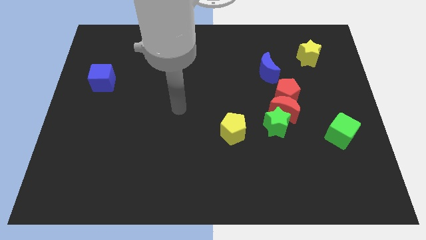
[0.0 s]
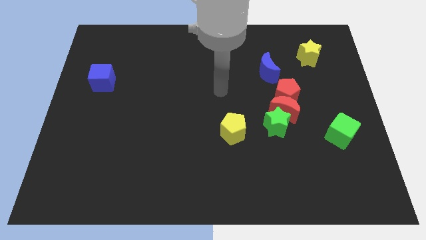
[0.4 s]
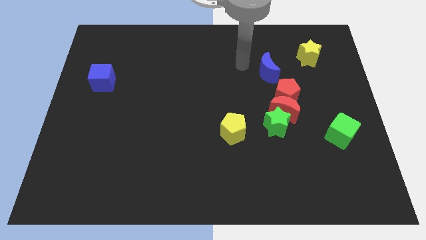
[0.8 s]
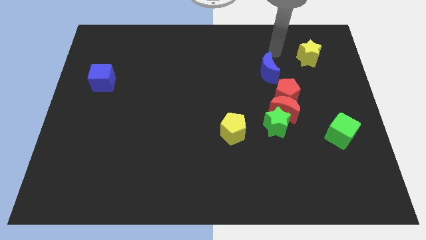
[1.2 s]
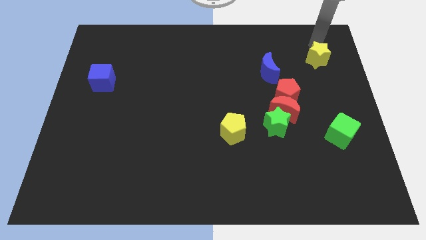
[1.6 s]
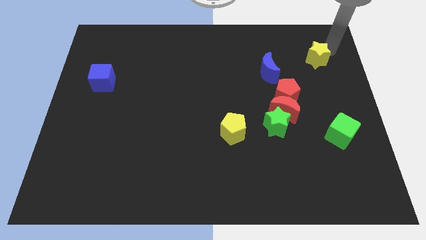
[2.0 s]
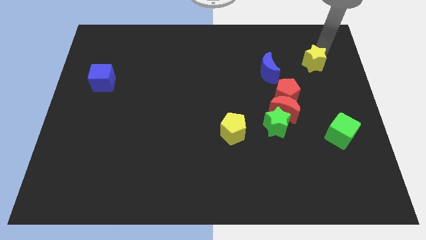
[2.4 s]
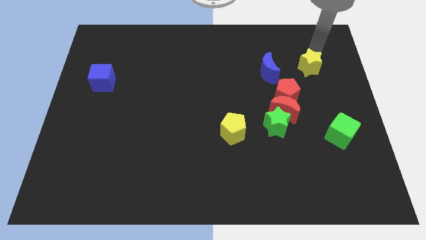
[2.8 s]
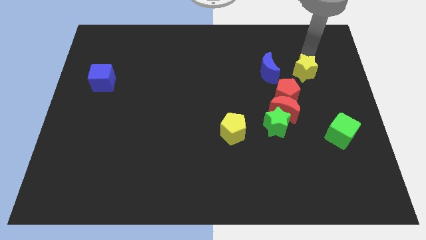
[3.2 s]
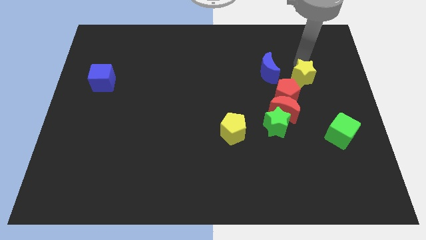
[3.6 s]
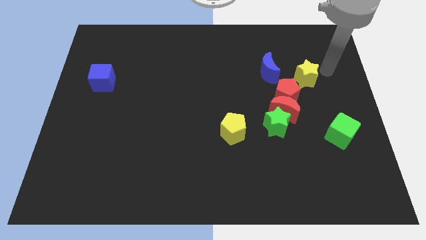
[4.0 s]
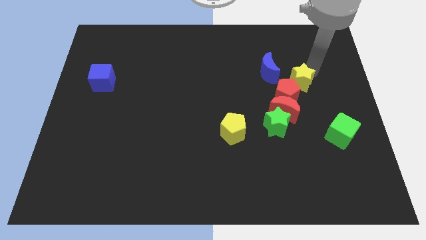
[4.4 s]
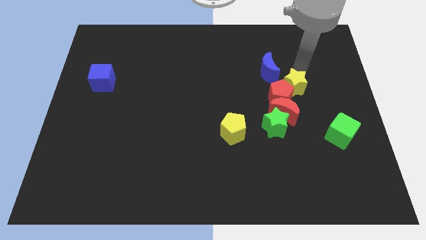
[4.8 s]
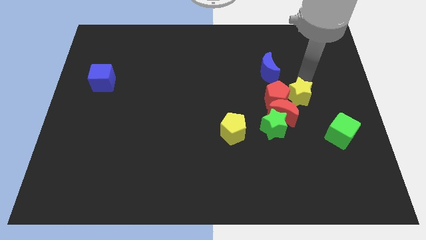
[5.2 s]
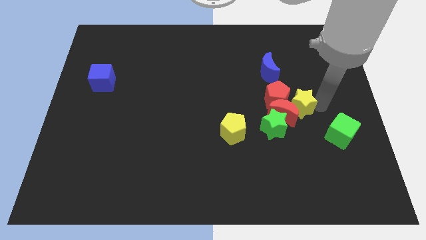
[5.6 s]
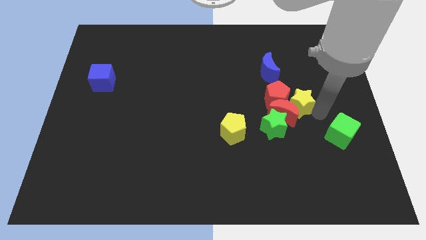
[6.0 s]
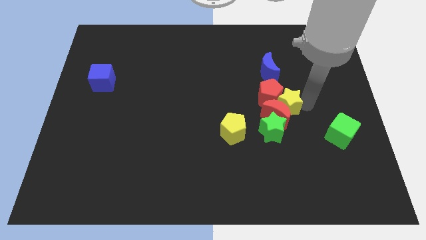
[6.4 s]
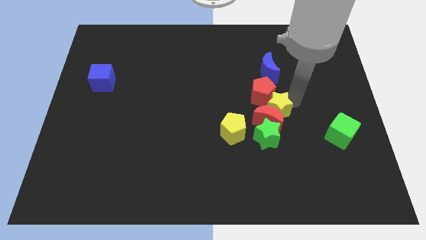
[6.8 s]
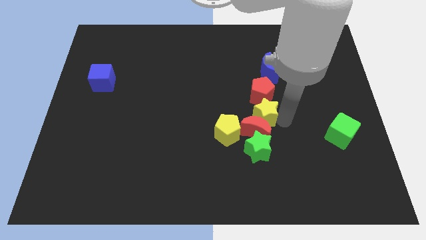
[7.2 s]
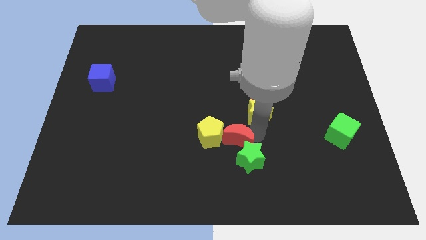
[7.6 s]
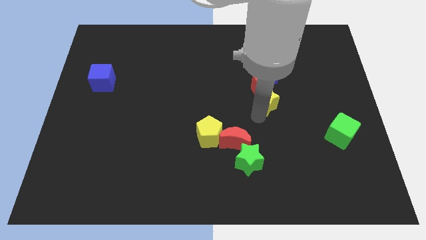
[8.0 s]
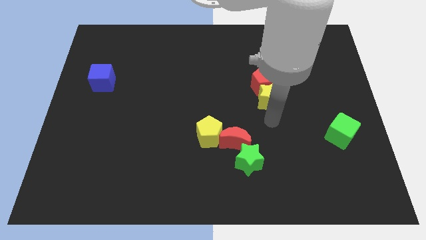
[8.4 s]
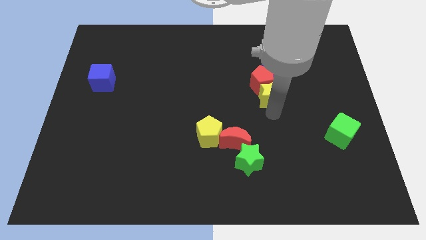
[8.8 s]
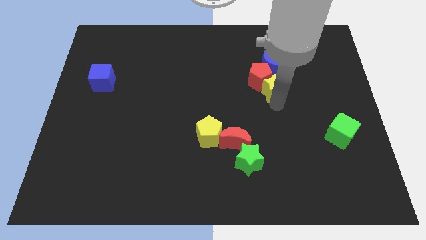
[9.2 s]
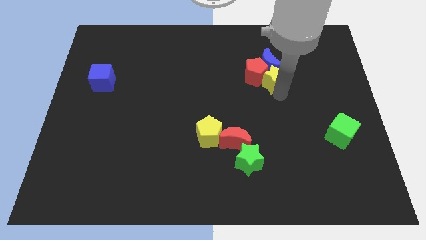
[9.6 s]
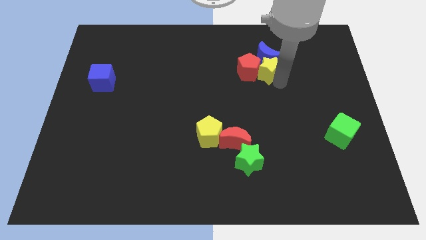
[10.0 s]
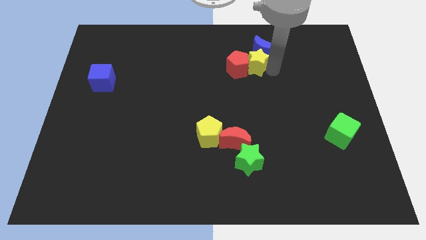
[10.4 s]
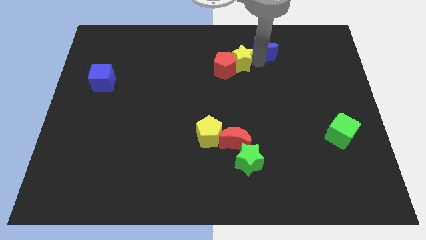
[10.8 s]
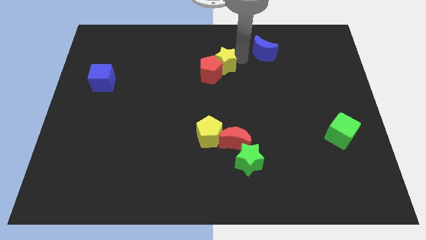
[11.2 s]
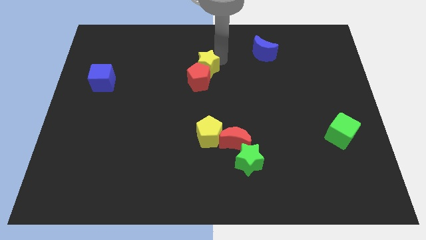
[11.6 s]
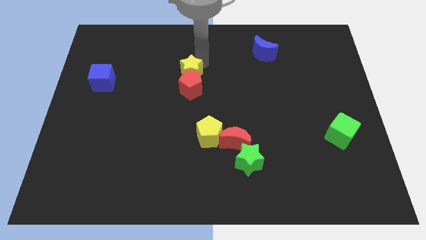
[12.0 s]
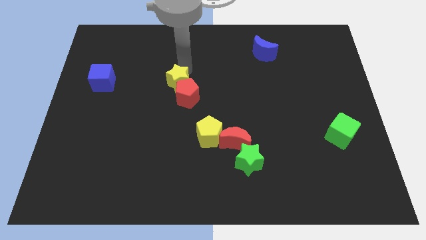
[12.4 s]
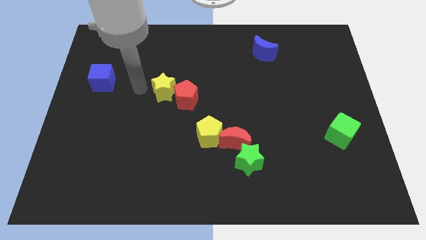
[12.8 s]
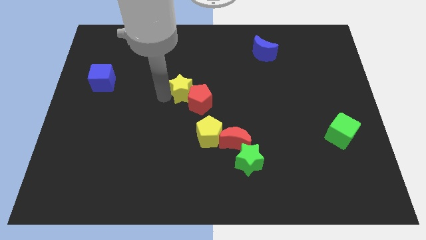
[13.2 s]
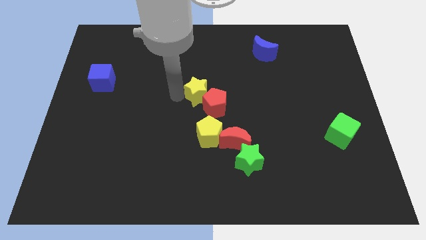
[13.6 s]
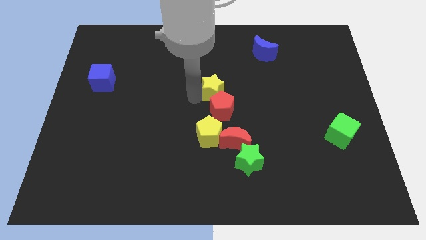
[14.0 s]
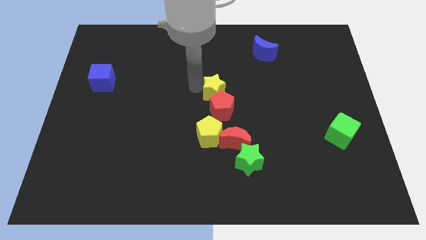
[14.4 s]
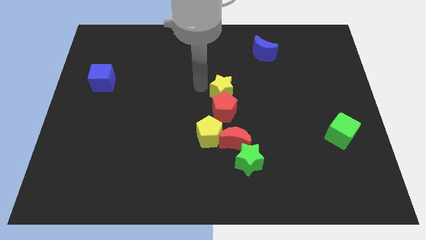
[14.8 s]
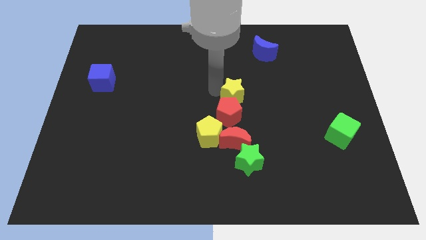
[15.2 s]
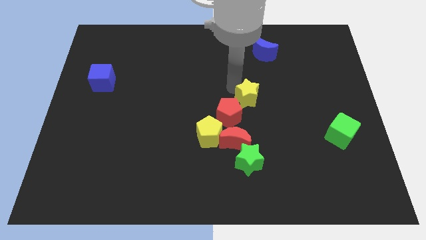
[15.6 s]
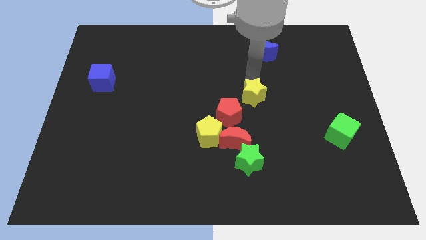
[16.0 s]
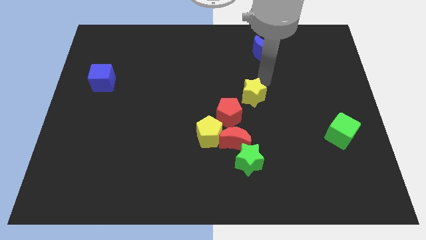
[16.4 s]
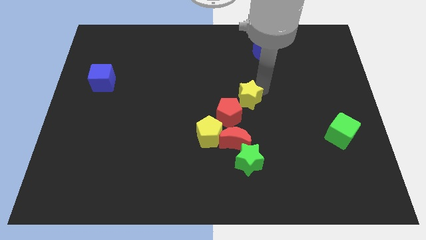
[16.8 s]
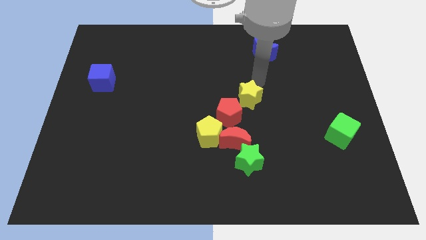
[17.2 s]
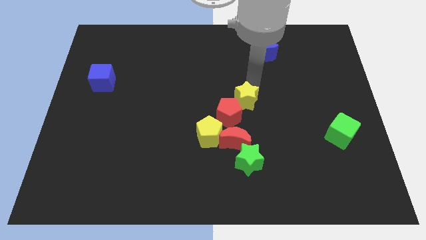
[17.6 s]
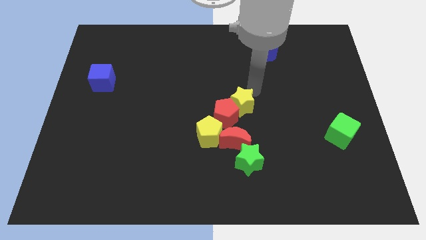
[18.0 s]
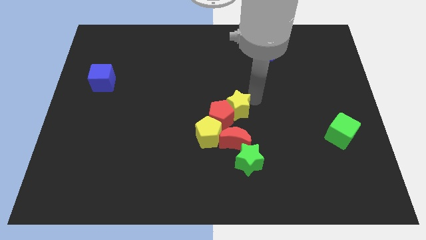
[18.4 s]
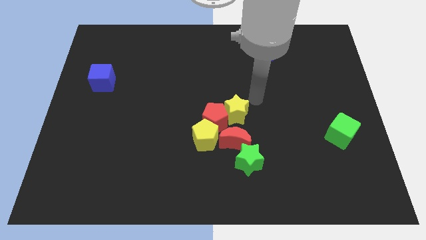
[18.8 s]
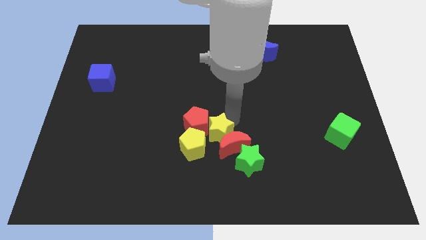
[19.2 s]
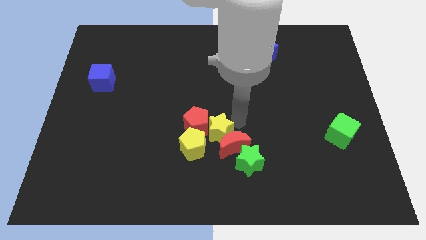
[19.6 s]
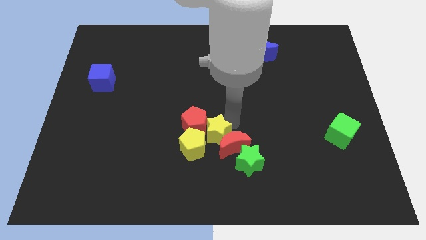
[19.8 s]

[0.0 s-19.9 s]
put the yellow star next to the yellow pentagon

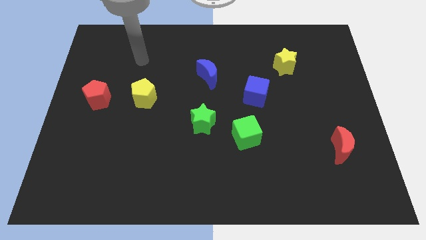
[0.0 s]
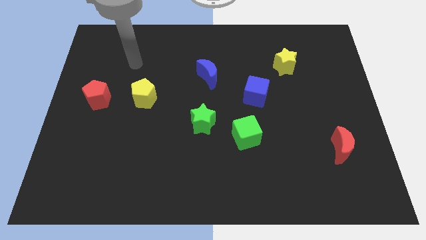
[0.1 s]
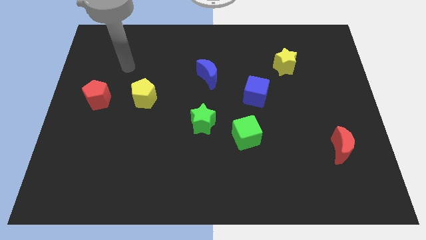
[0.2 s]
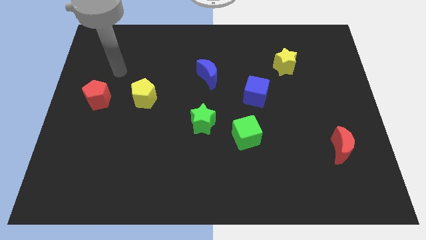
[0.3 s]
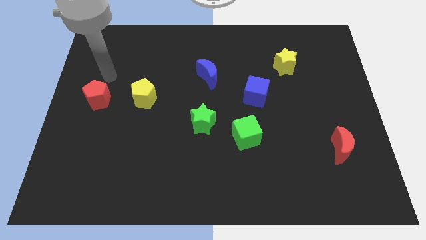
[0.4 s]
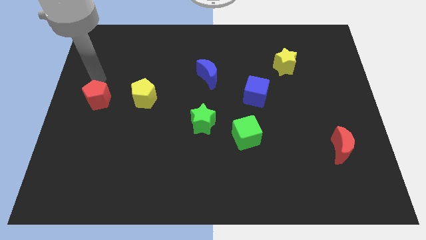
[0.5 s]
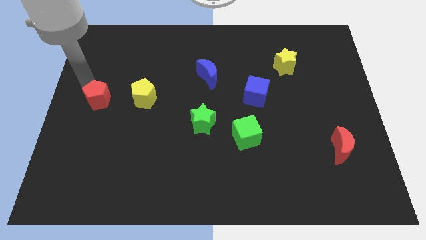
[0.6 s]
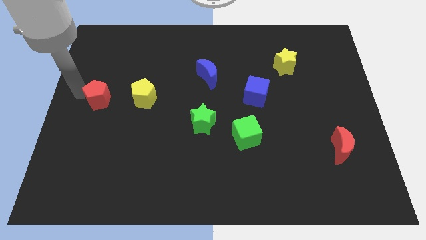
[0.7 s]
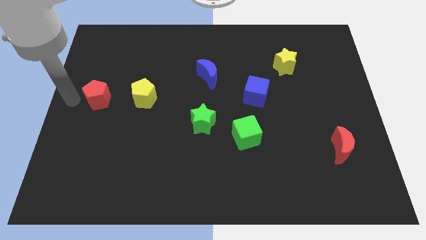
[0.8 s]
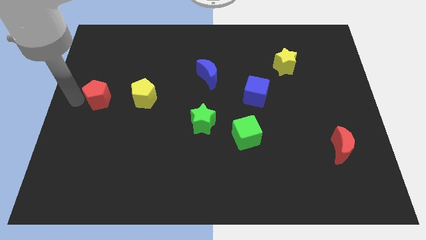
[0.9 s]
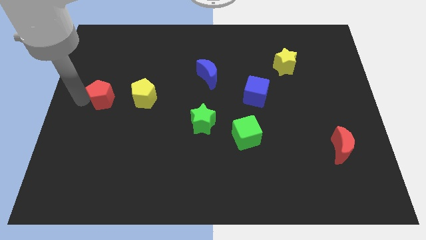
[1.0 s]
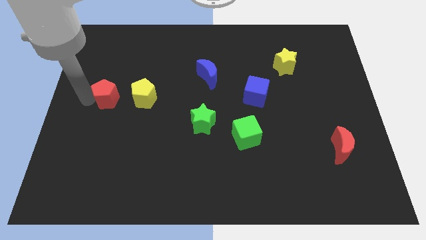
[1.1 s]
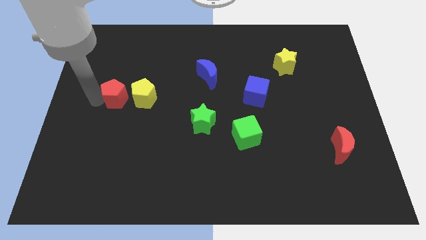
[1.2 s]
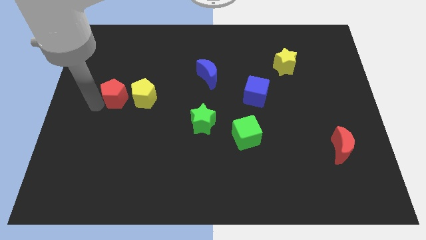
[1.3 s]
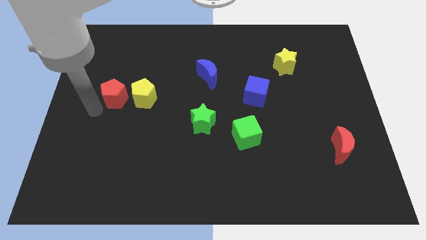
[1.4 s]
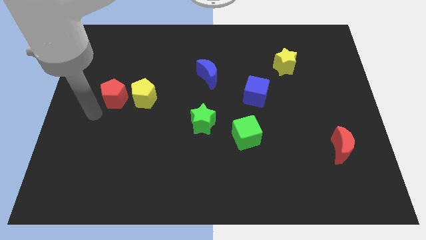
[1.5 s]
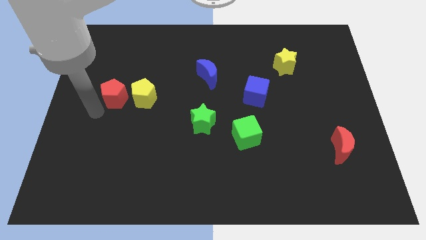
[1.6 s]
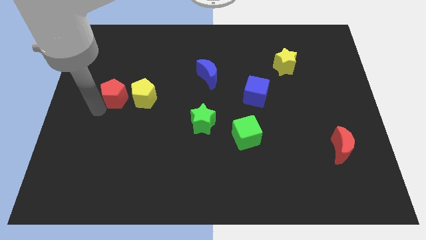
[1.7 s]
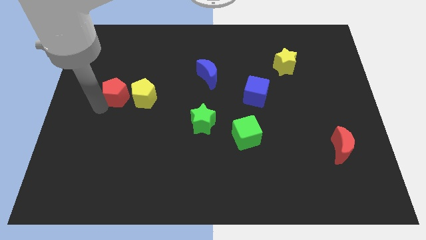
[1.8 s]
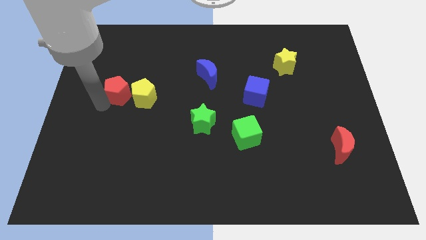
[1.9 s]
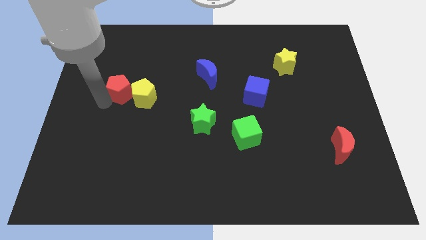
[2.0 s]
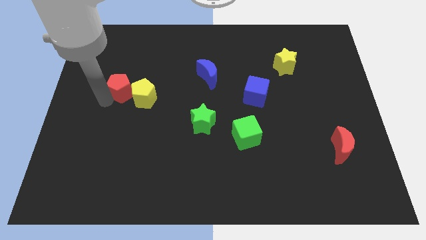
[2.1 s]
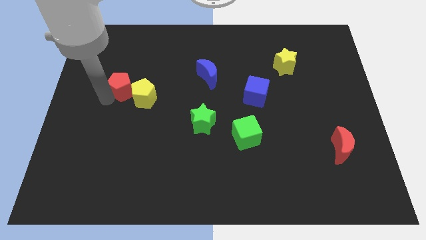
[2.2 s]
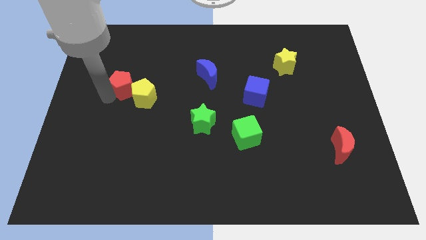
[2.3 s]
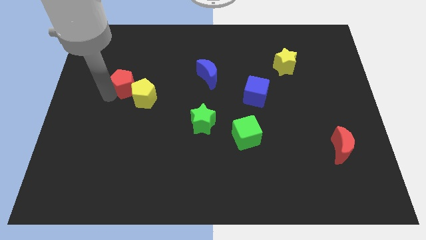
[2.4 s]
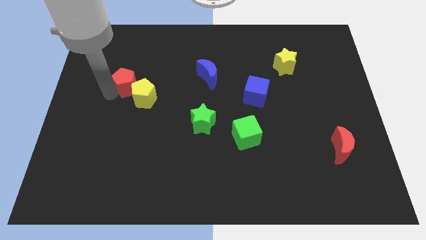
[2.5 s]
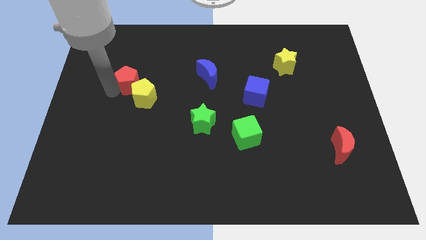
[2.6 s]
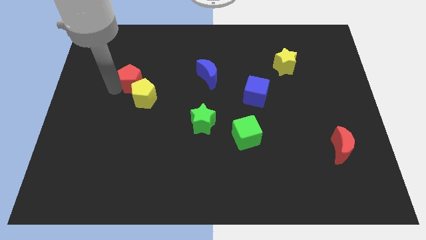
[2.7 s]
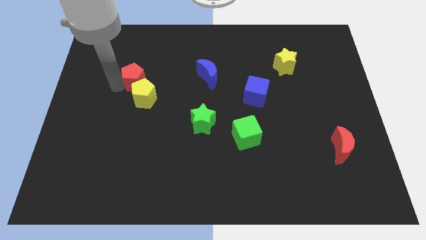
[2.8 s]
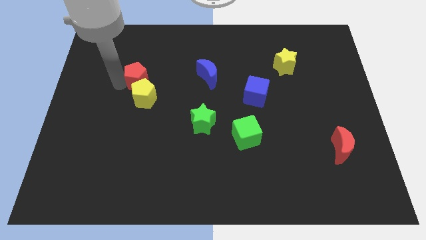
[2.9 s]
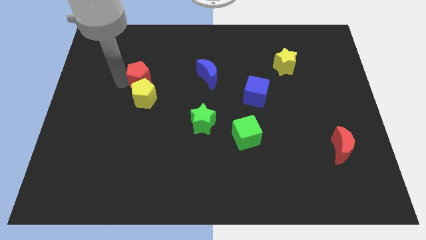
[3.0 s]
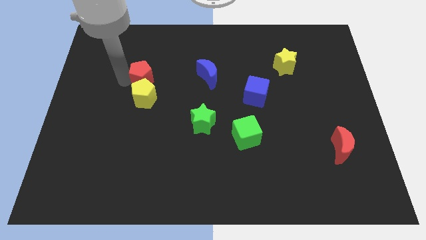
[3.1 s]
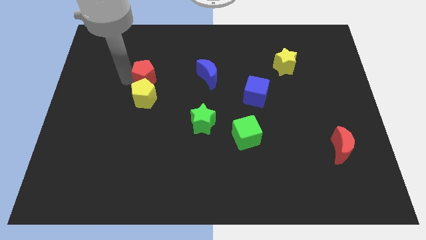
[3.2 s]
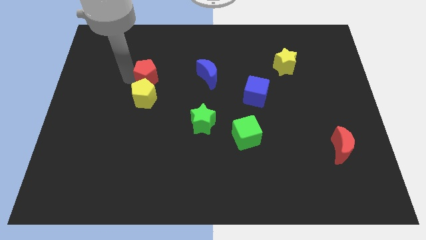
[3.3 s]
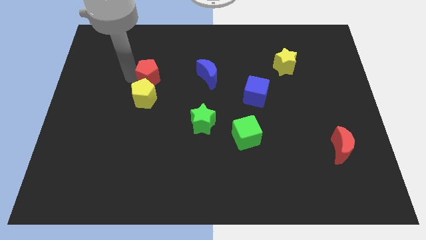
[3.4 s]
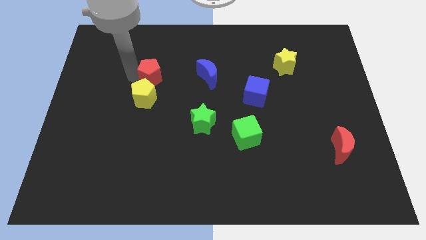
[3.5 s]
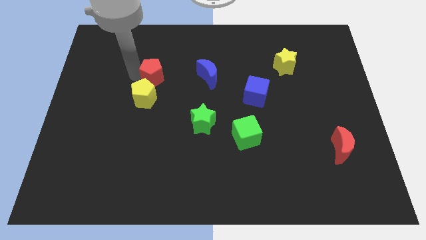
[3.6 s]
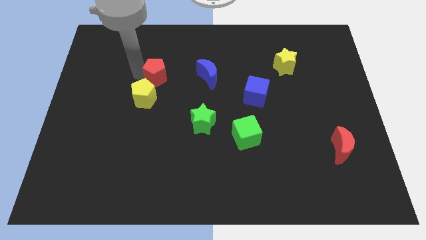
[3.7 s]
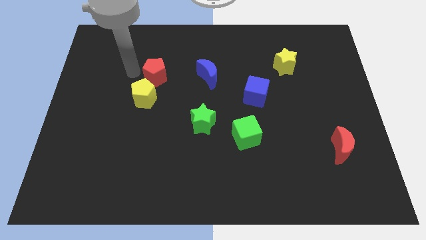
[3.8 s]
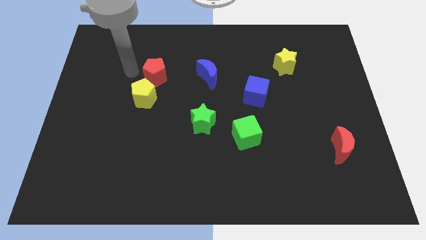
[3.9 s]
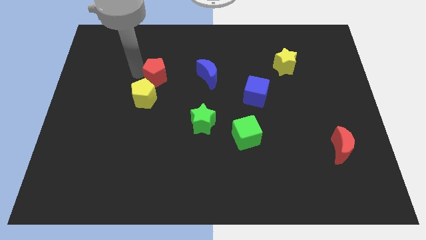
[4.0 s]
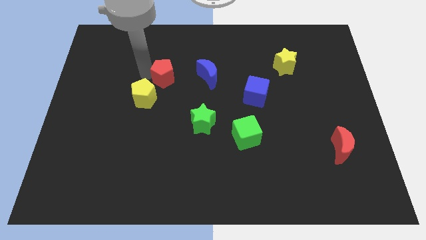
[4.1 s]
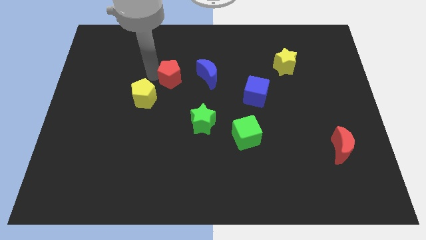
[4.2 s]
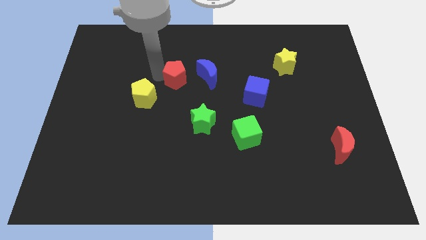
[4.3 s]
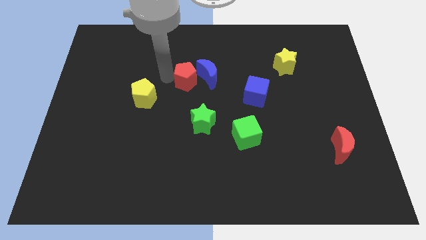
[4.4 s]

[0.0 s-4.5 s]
push the red pentagon towards the blue moon
